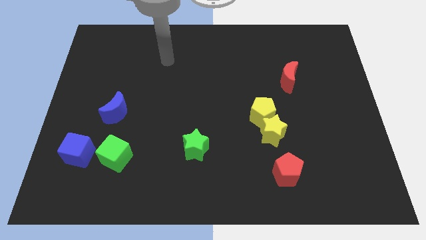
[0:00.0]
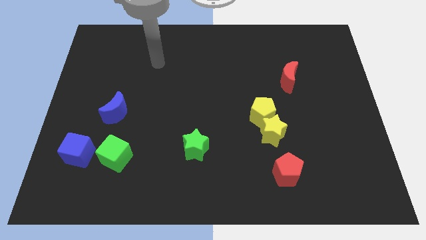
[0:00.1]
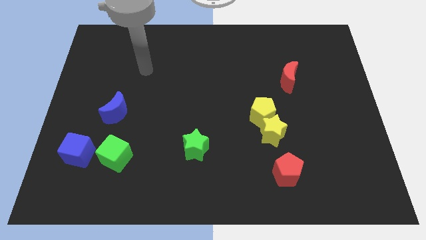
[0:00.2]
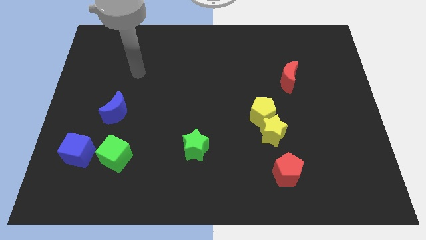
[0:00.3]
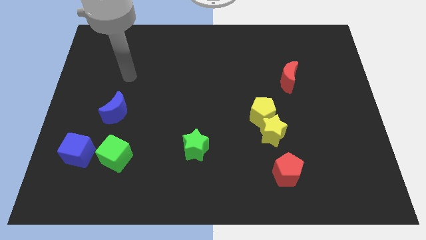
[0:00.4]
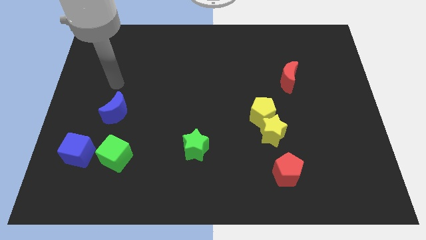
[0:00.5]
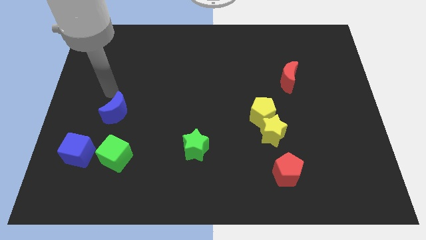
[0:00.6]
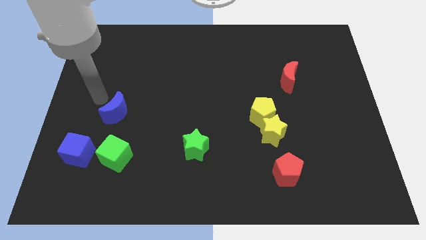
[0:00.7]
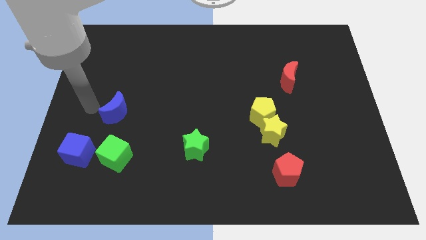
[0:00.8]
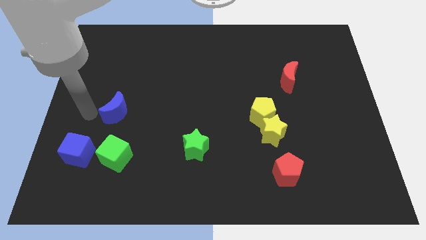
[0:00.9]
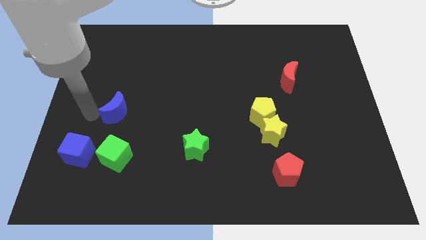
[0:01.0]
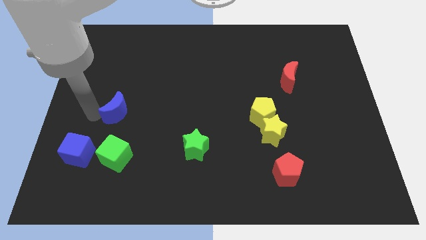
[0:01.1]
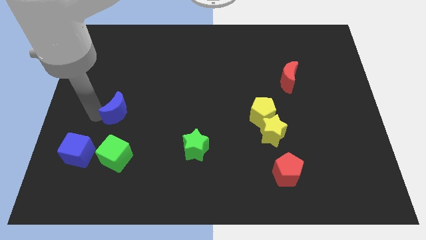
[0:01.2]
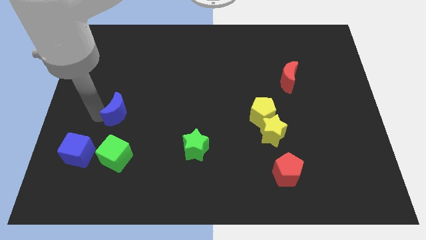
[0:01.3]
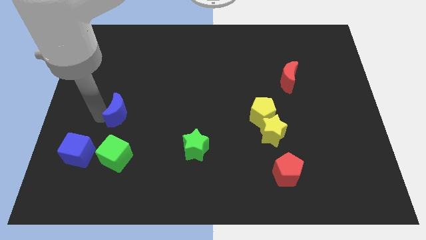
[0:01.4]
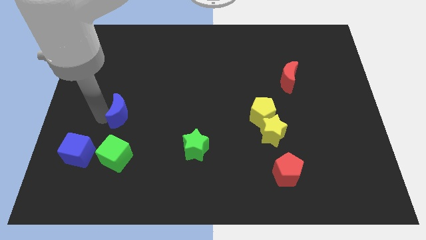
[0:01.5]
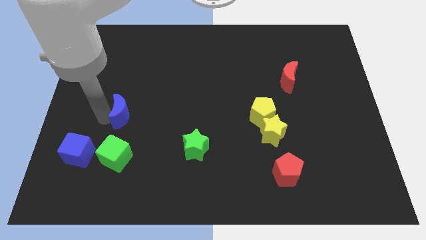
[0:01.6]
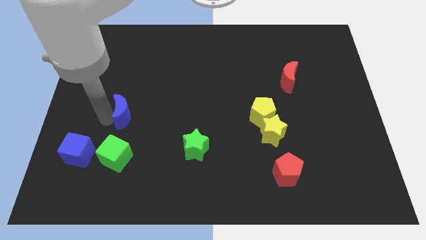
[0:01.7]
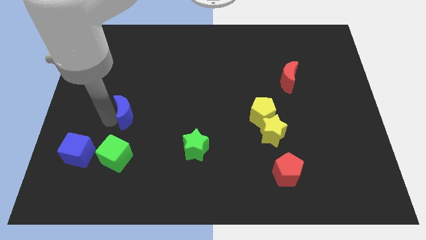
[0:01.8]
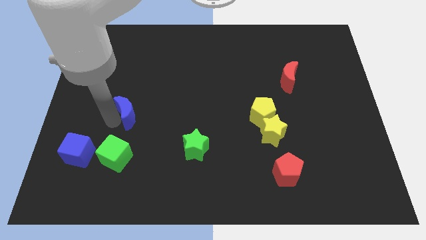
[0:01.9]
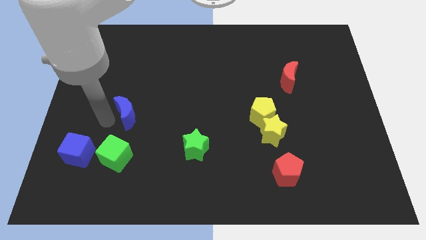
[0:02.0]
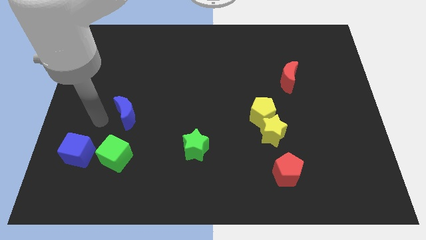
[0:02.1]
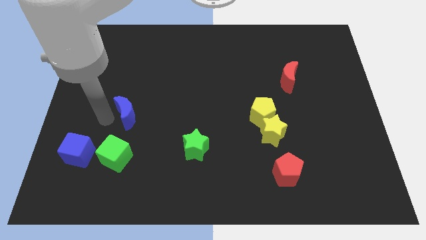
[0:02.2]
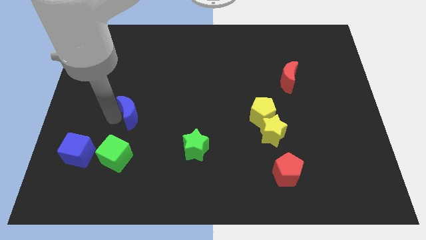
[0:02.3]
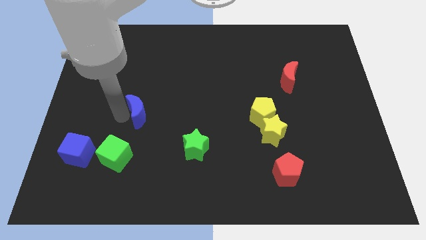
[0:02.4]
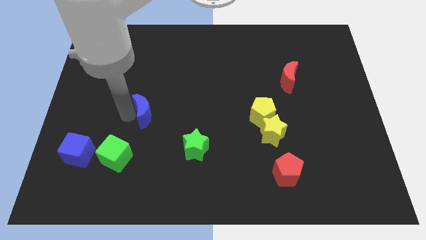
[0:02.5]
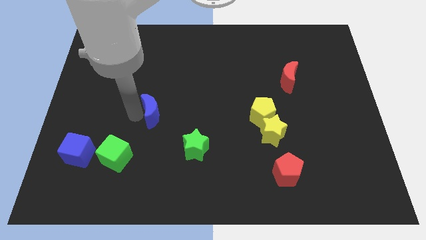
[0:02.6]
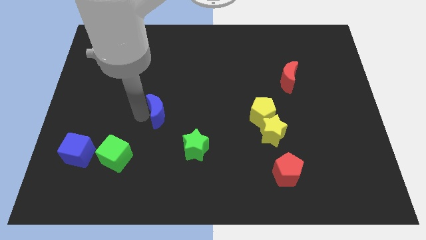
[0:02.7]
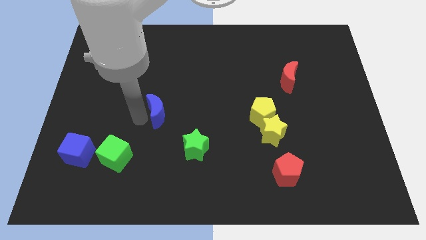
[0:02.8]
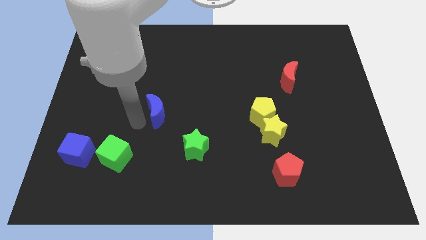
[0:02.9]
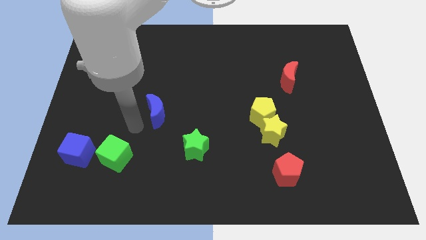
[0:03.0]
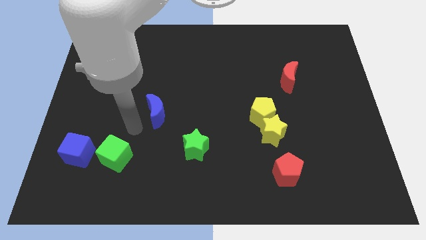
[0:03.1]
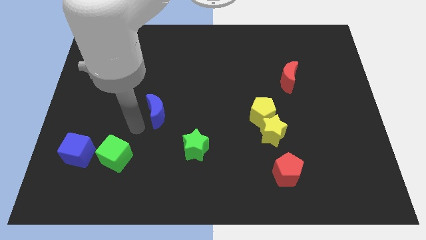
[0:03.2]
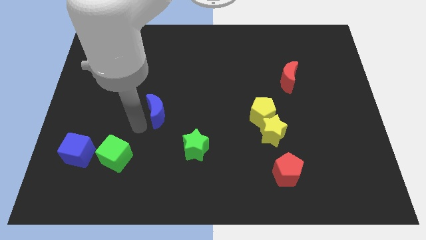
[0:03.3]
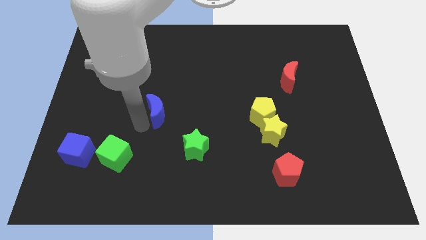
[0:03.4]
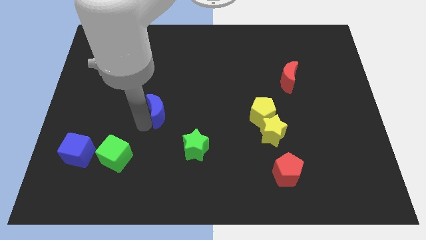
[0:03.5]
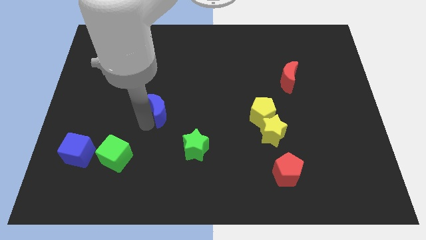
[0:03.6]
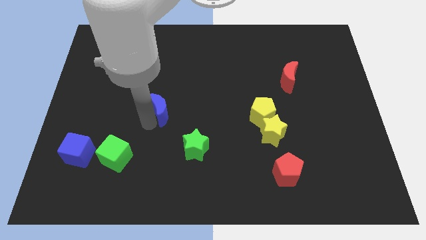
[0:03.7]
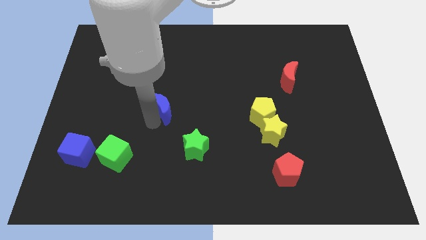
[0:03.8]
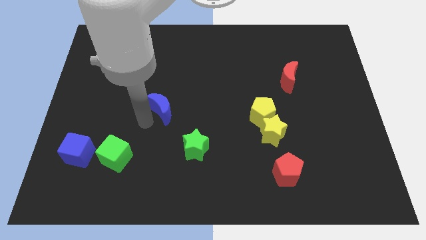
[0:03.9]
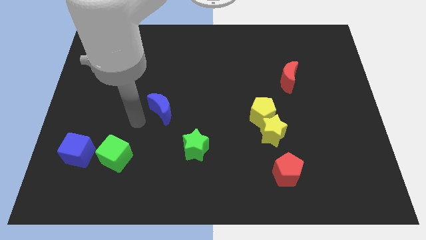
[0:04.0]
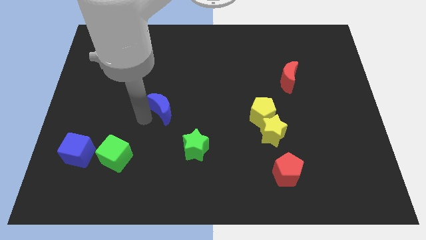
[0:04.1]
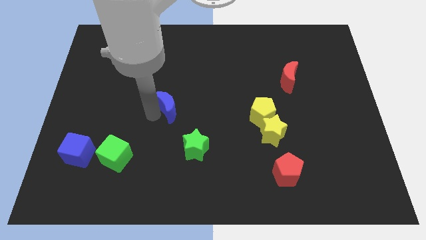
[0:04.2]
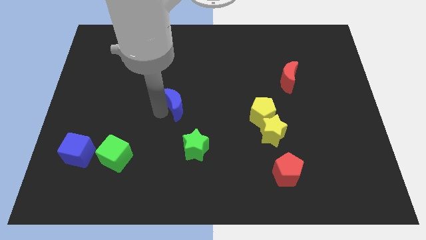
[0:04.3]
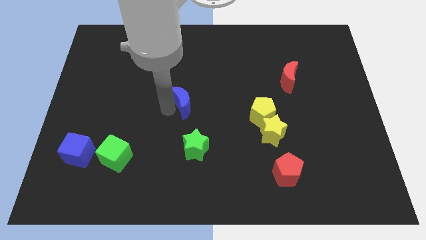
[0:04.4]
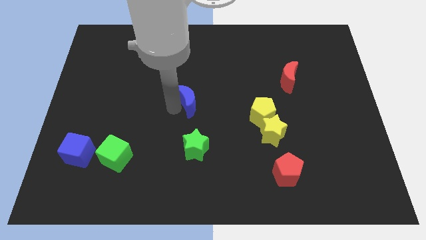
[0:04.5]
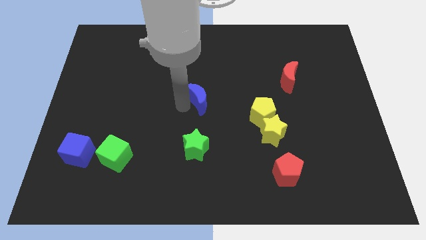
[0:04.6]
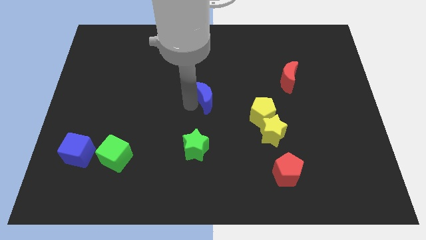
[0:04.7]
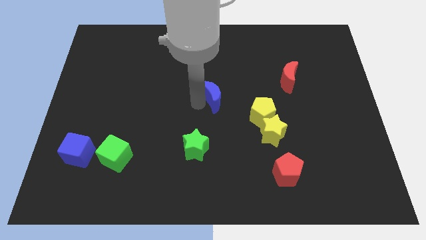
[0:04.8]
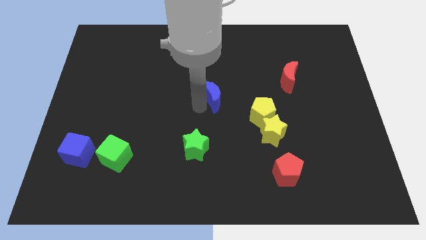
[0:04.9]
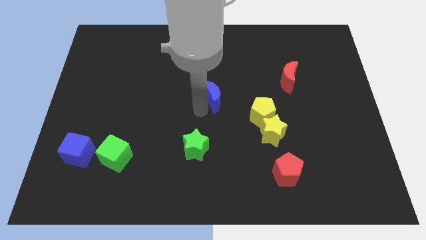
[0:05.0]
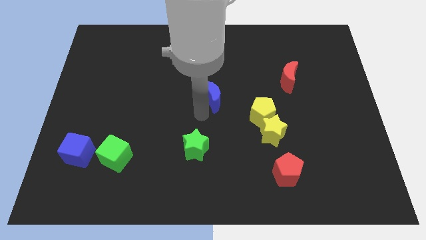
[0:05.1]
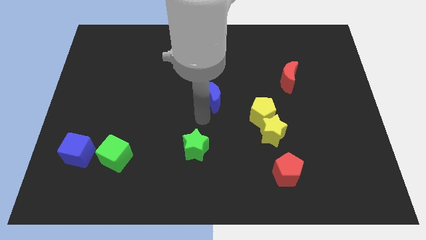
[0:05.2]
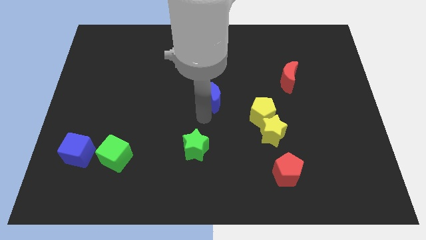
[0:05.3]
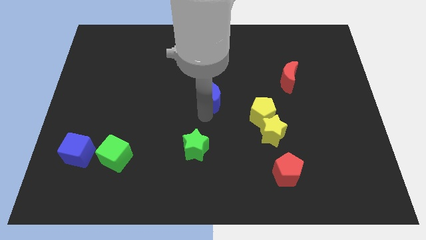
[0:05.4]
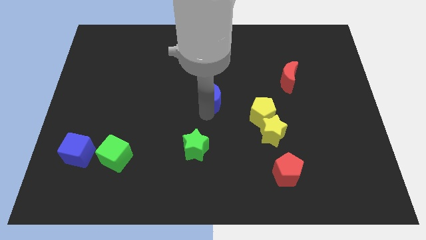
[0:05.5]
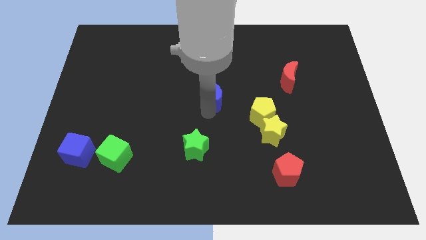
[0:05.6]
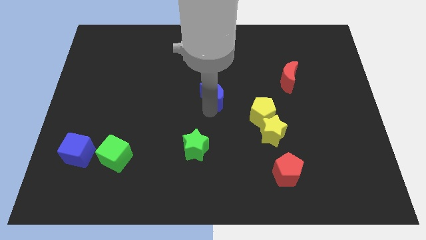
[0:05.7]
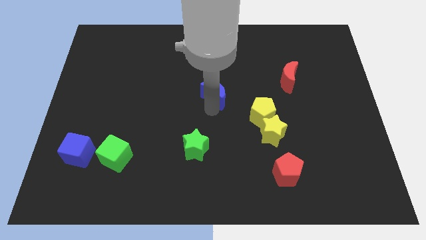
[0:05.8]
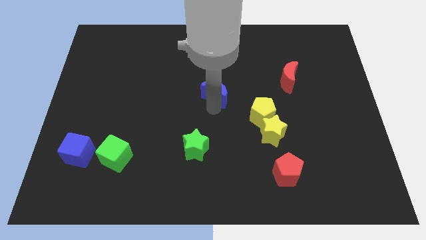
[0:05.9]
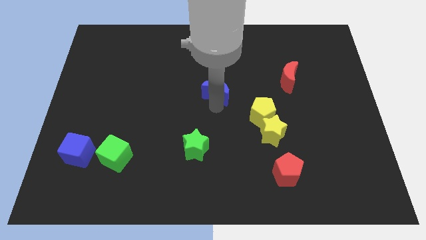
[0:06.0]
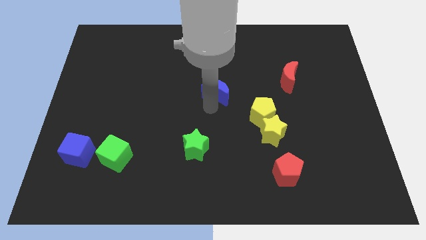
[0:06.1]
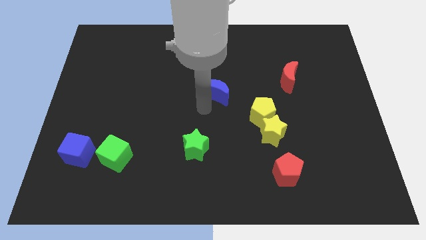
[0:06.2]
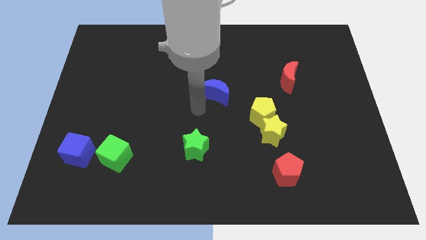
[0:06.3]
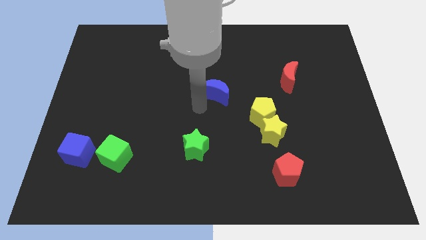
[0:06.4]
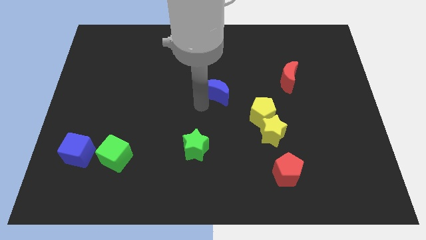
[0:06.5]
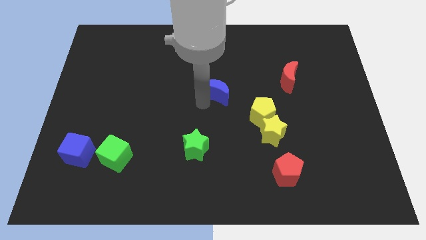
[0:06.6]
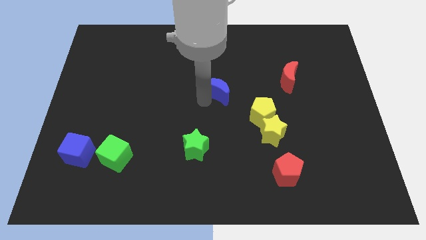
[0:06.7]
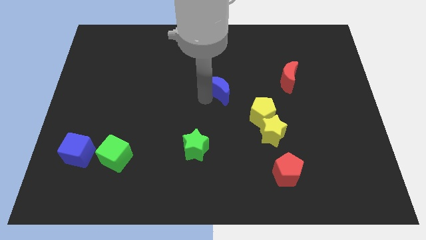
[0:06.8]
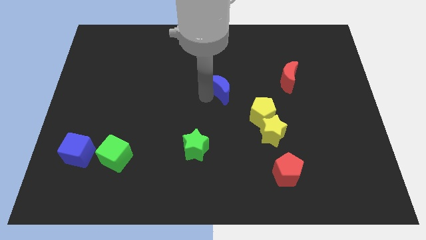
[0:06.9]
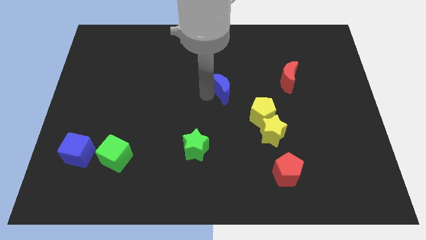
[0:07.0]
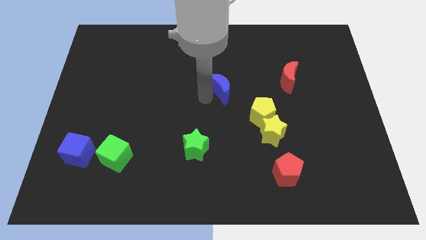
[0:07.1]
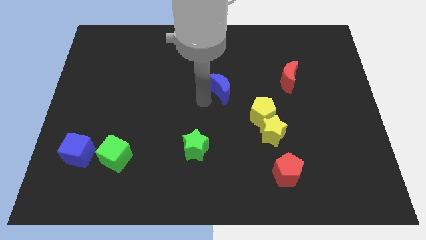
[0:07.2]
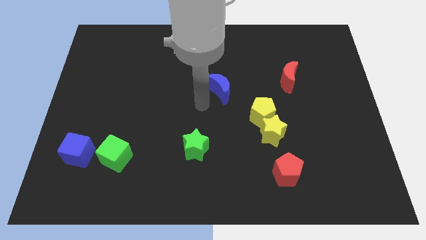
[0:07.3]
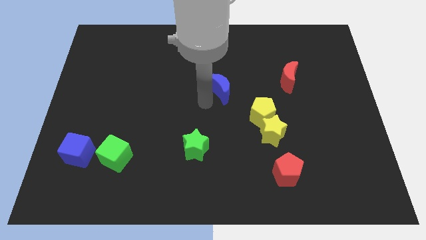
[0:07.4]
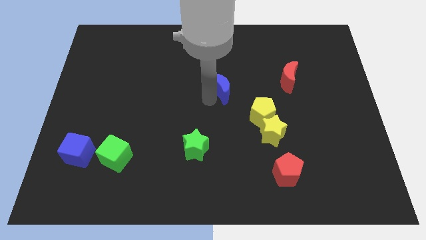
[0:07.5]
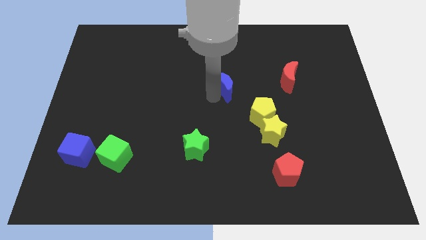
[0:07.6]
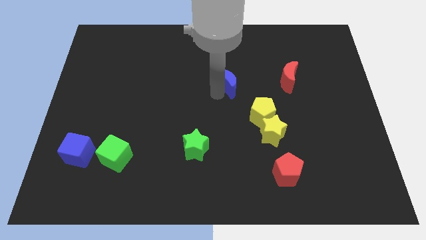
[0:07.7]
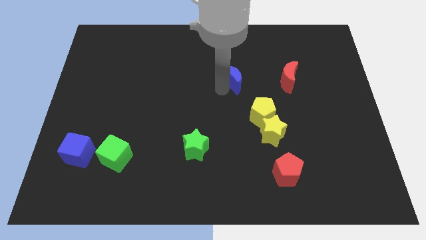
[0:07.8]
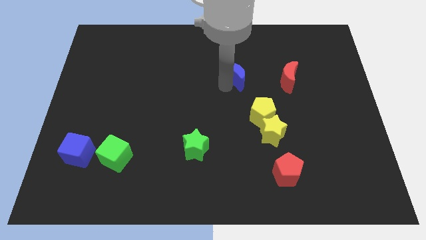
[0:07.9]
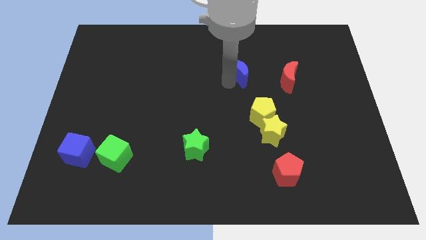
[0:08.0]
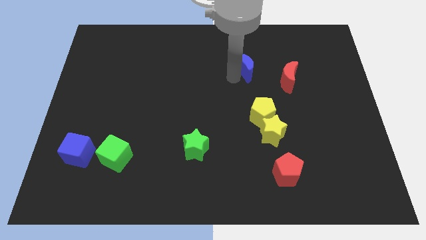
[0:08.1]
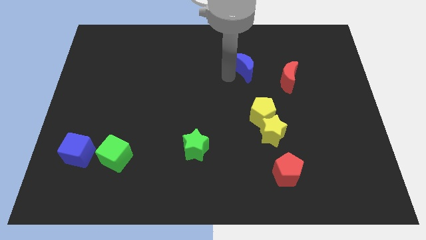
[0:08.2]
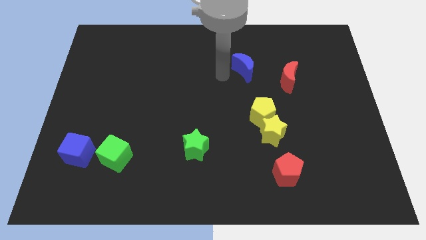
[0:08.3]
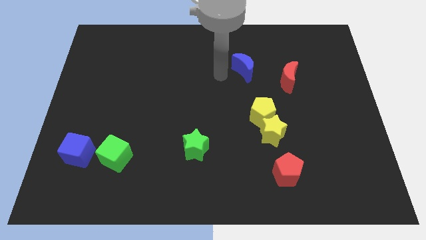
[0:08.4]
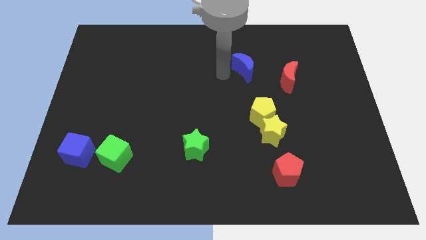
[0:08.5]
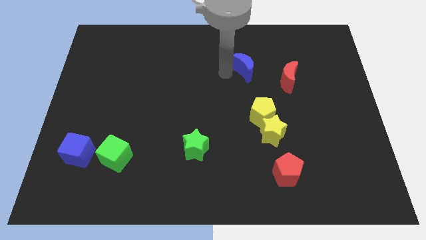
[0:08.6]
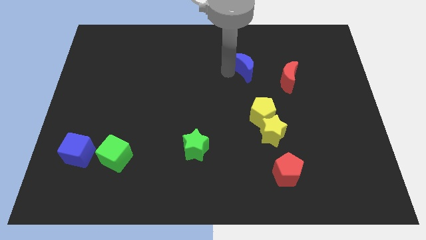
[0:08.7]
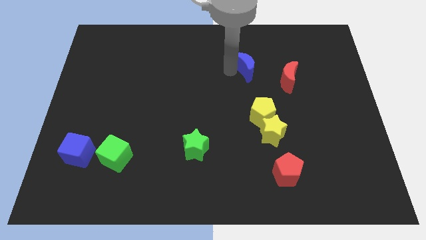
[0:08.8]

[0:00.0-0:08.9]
slide the blue moon to the top left side of the red moon
